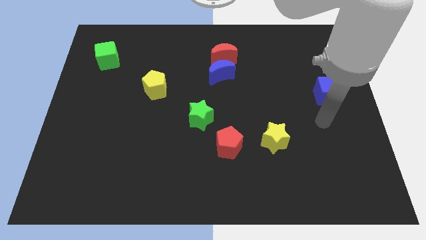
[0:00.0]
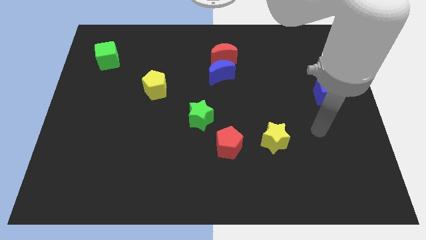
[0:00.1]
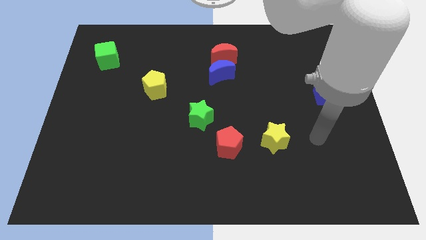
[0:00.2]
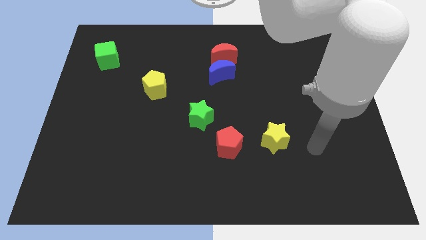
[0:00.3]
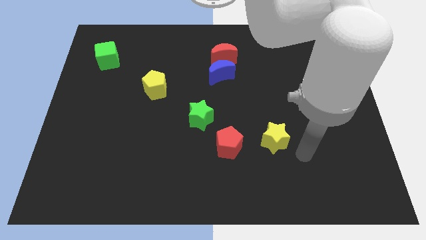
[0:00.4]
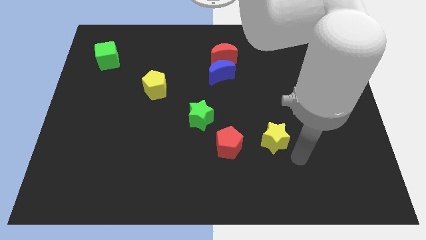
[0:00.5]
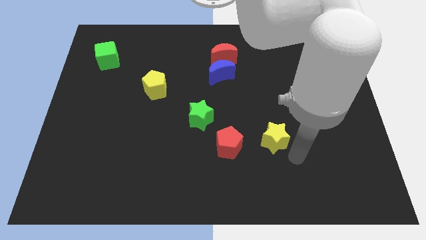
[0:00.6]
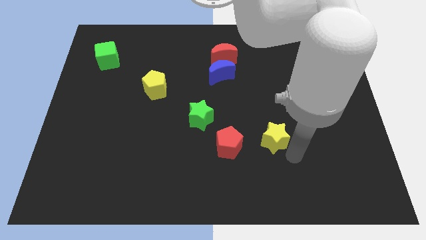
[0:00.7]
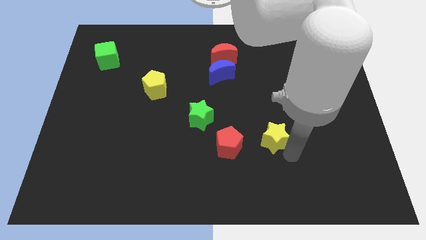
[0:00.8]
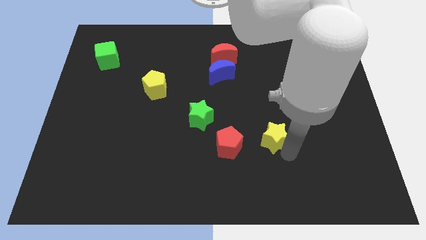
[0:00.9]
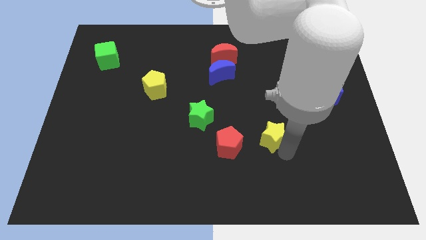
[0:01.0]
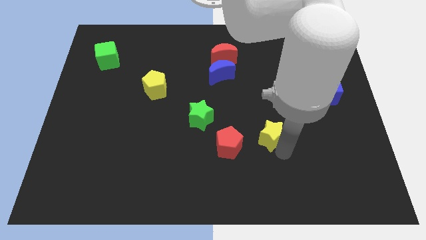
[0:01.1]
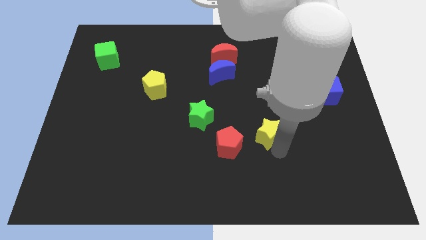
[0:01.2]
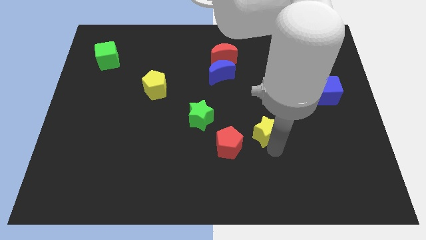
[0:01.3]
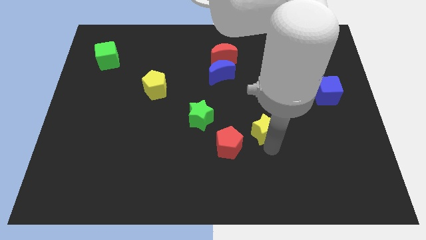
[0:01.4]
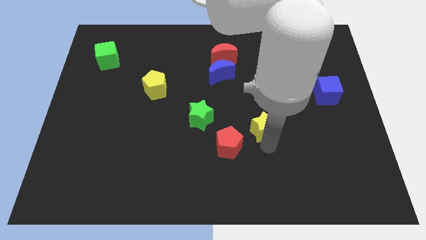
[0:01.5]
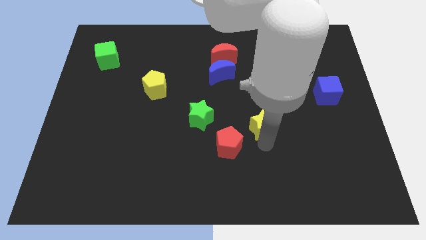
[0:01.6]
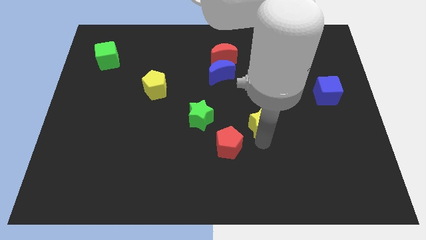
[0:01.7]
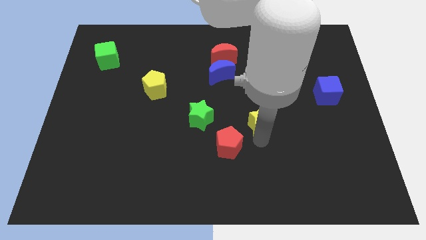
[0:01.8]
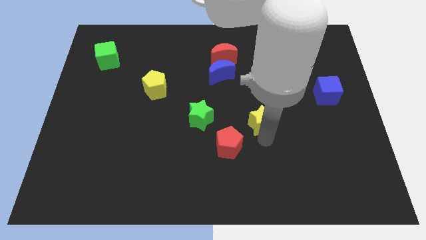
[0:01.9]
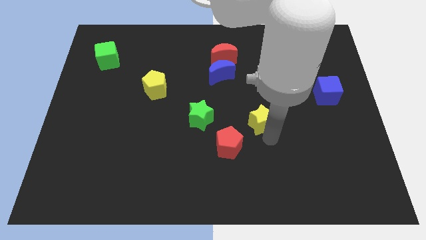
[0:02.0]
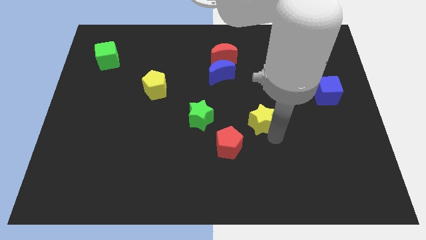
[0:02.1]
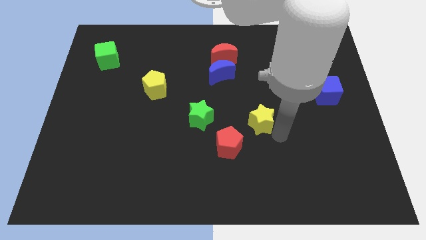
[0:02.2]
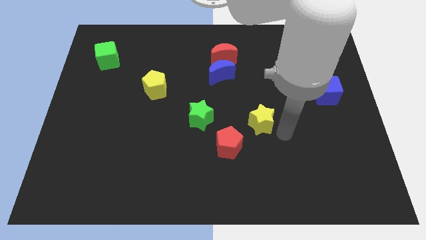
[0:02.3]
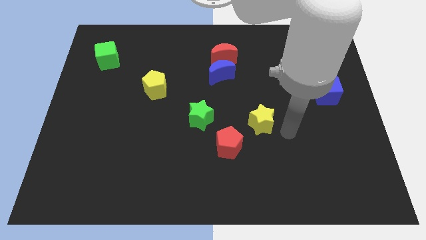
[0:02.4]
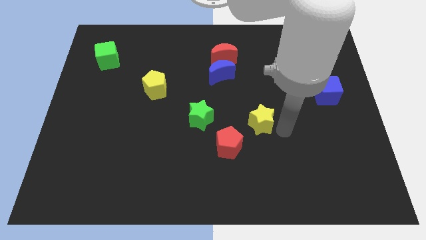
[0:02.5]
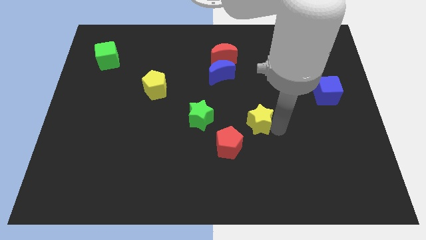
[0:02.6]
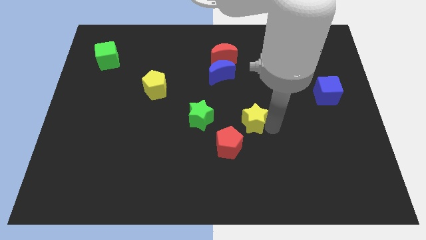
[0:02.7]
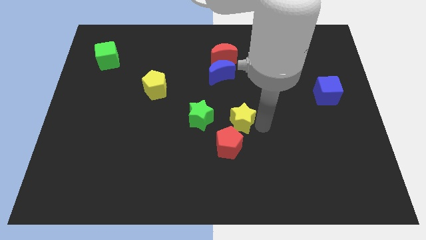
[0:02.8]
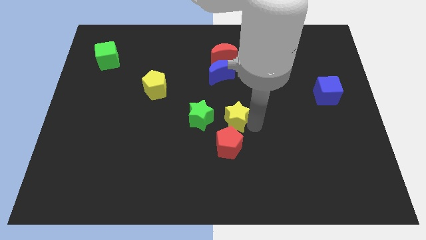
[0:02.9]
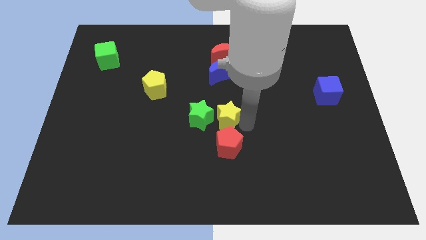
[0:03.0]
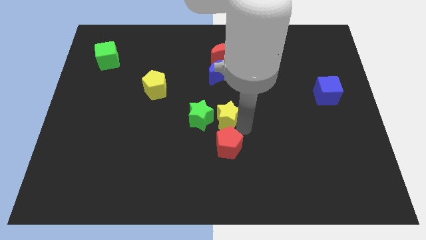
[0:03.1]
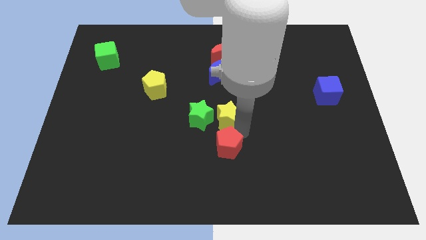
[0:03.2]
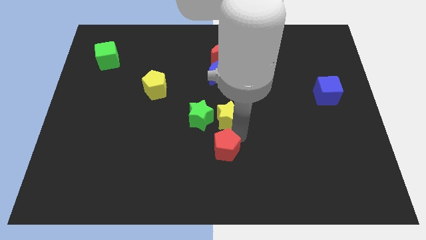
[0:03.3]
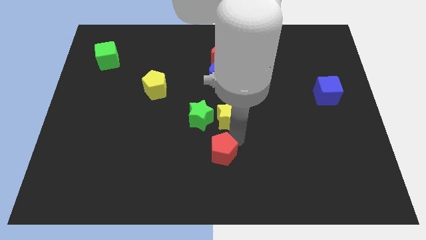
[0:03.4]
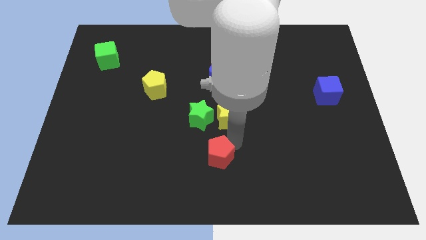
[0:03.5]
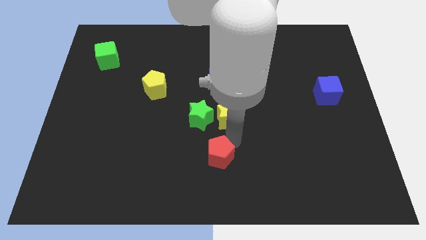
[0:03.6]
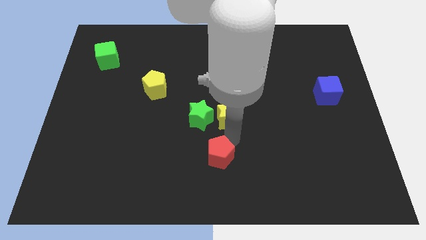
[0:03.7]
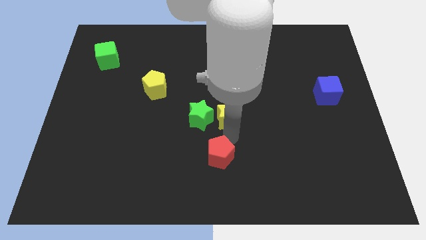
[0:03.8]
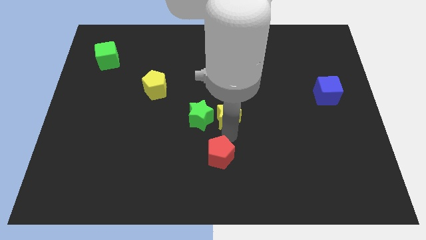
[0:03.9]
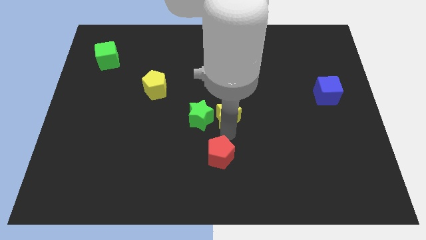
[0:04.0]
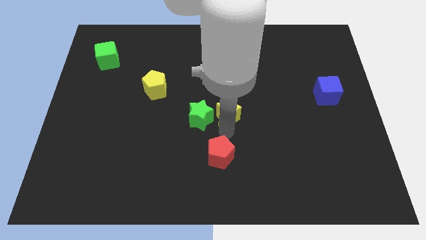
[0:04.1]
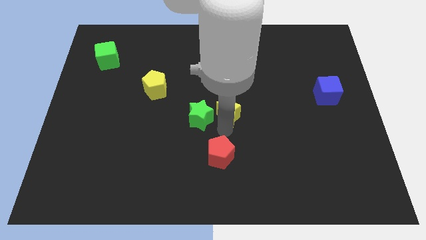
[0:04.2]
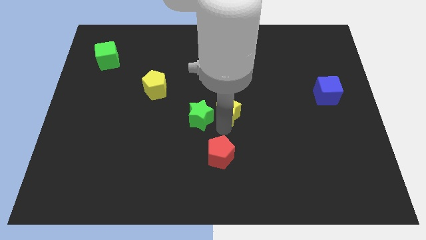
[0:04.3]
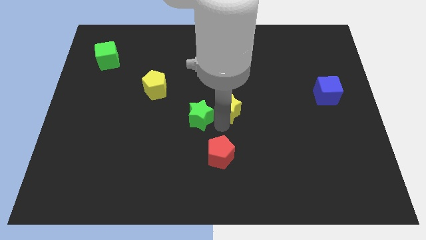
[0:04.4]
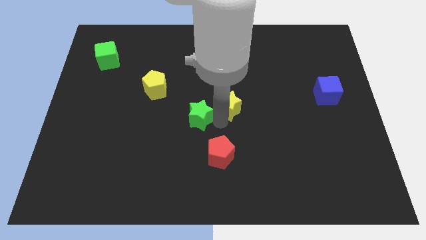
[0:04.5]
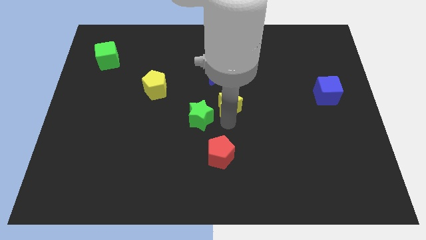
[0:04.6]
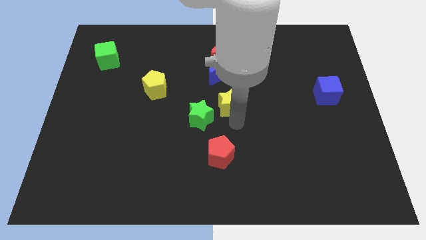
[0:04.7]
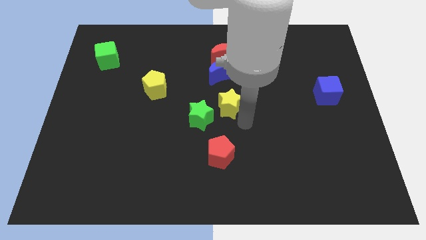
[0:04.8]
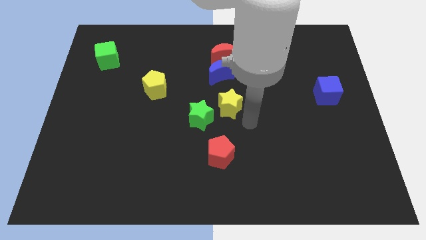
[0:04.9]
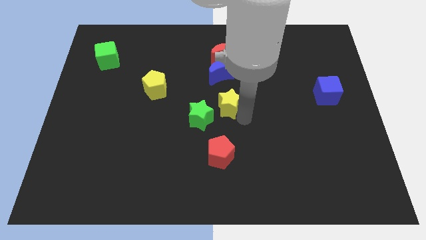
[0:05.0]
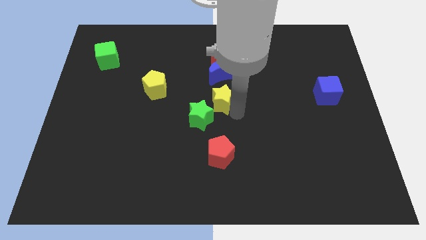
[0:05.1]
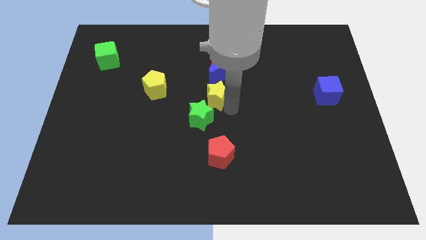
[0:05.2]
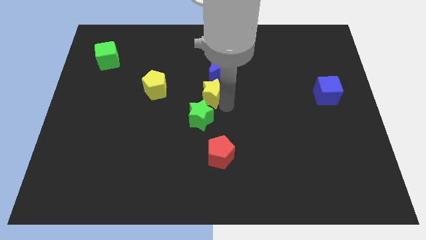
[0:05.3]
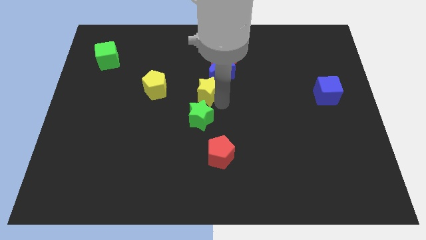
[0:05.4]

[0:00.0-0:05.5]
move the yellow star upwards and to the left diagonally

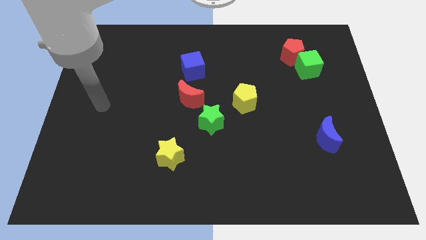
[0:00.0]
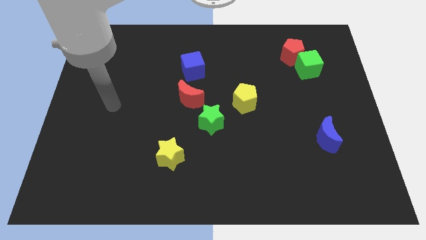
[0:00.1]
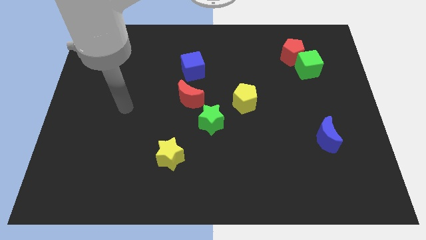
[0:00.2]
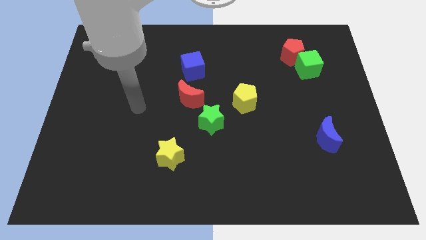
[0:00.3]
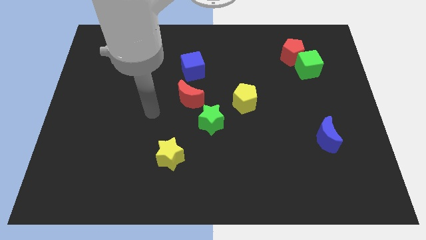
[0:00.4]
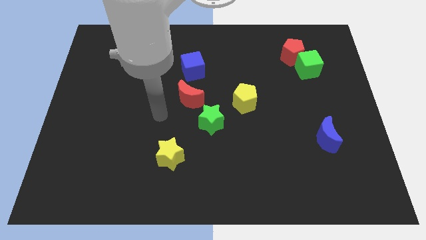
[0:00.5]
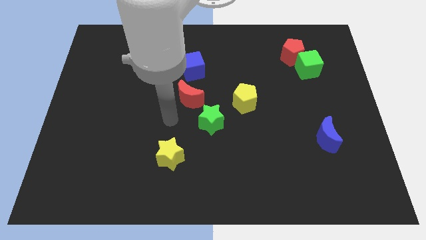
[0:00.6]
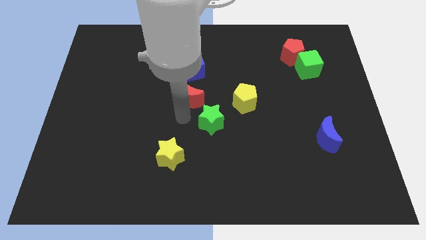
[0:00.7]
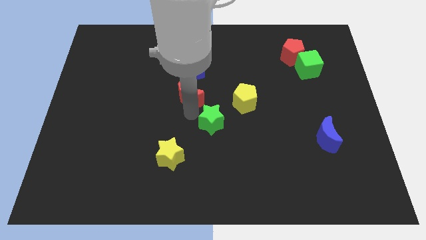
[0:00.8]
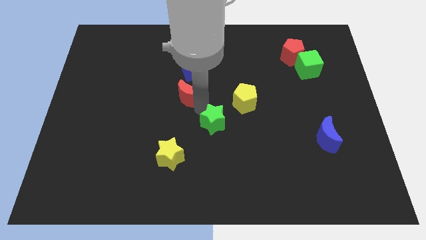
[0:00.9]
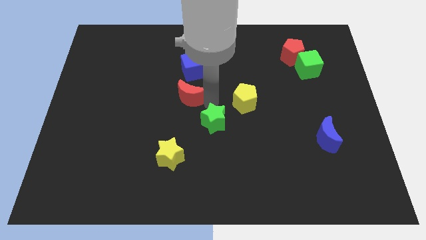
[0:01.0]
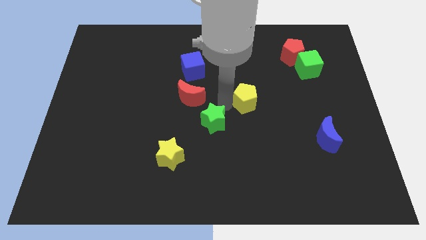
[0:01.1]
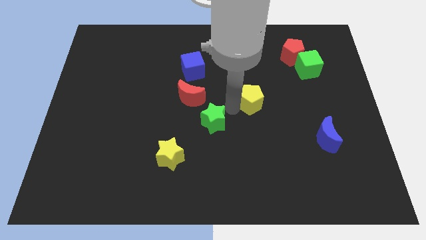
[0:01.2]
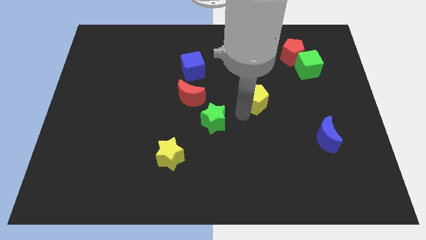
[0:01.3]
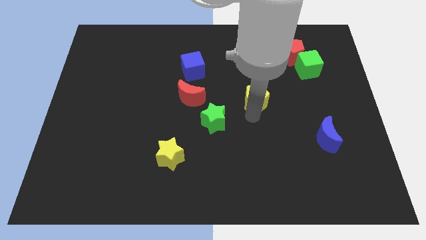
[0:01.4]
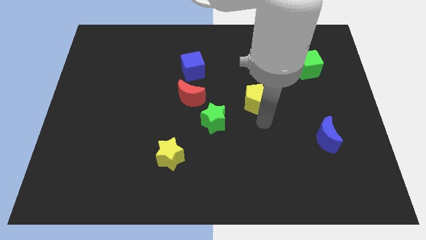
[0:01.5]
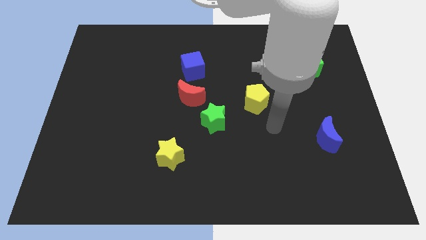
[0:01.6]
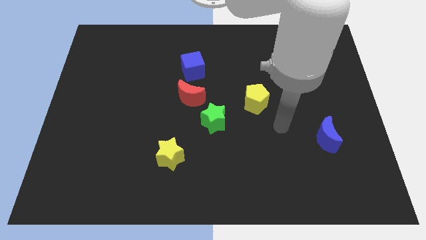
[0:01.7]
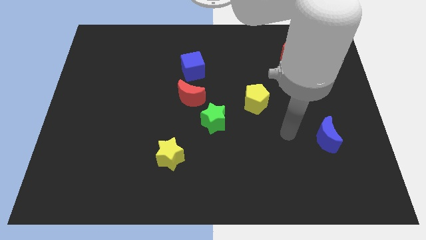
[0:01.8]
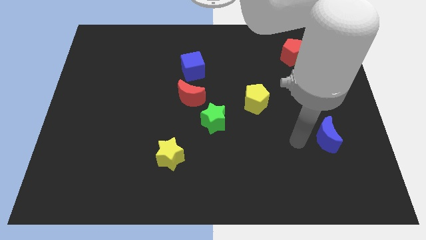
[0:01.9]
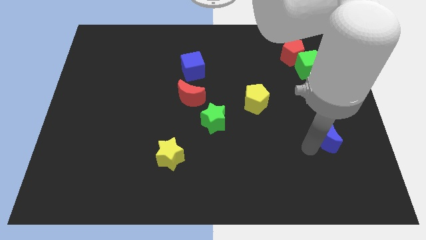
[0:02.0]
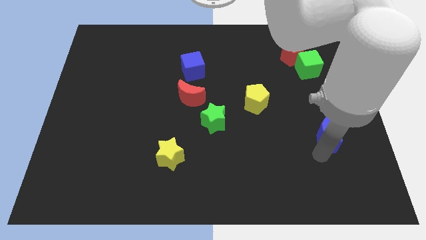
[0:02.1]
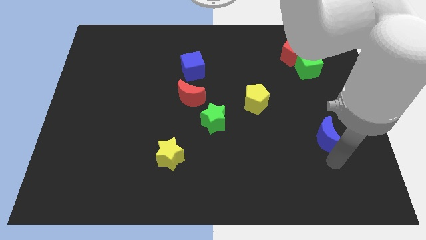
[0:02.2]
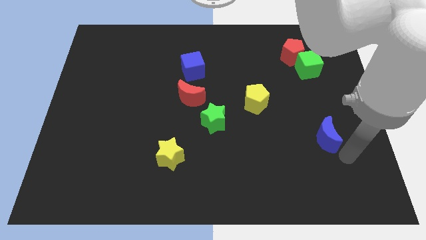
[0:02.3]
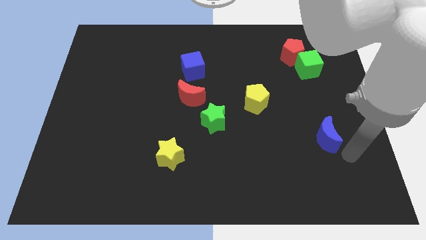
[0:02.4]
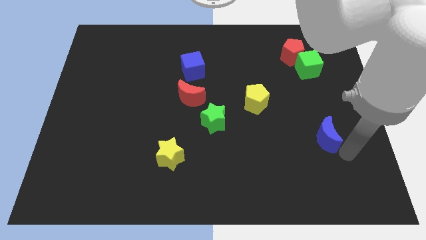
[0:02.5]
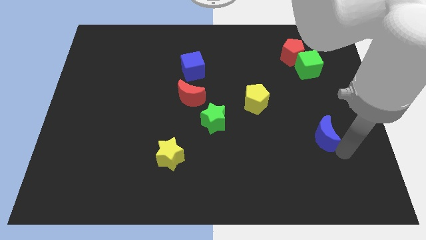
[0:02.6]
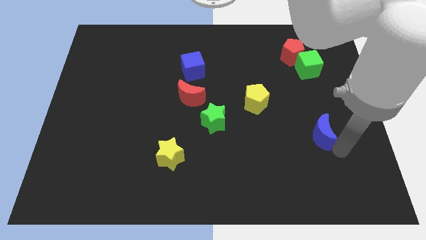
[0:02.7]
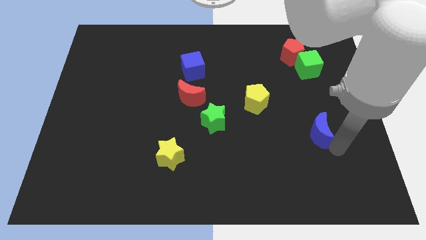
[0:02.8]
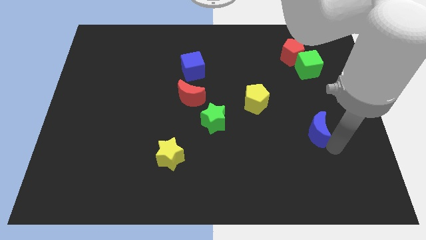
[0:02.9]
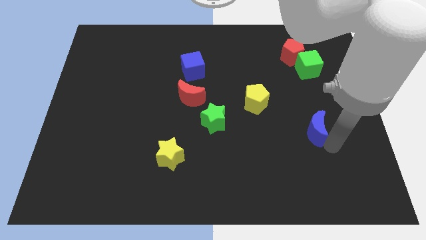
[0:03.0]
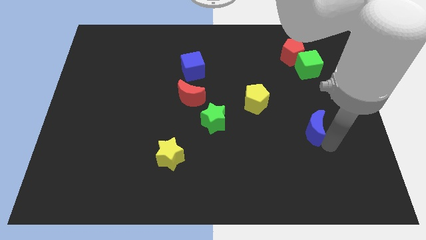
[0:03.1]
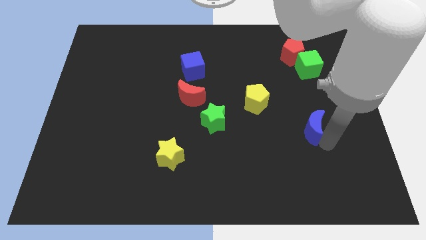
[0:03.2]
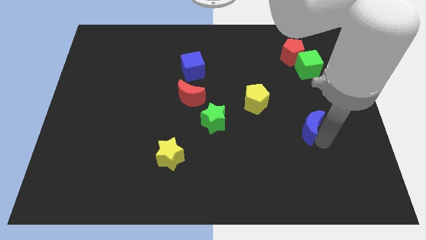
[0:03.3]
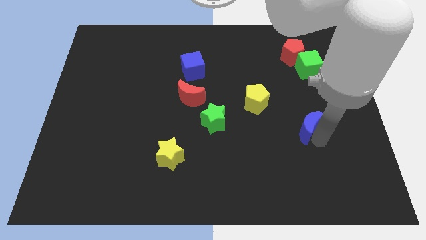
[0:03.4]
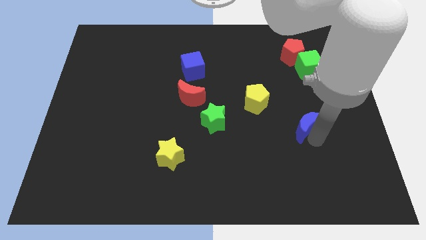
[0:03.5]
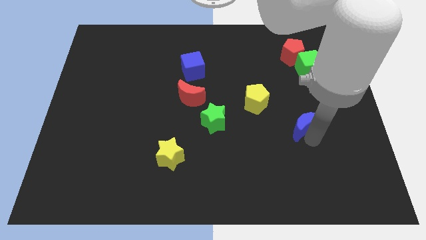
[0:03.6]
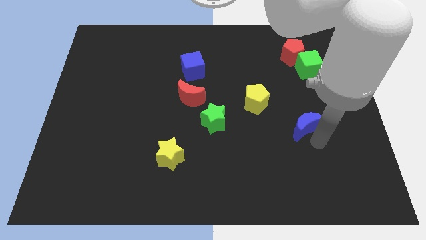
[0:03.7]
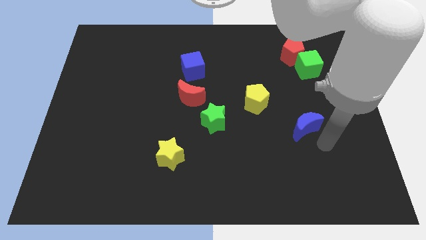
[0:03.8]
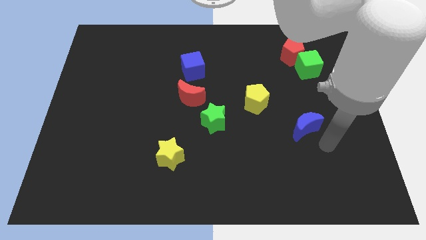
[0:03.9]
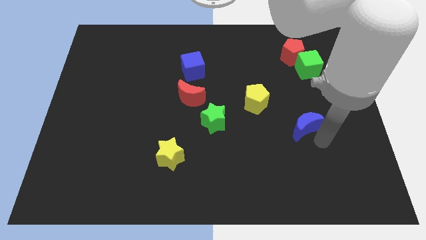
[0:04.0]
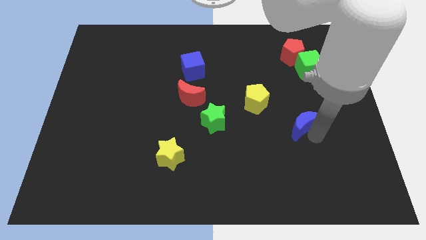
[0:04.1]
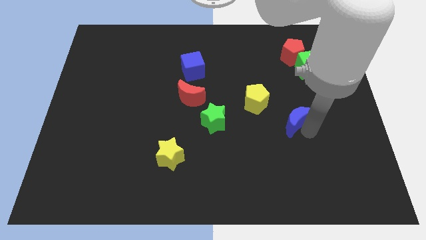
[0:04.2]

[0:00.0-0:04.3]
slightly move the blue moon diagonally up and to the left
